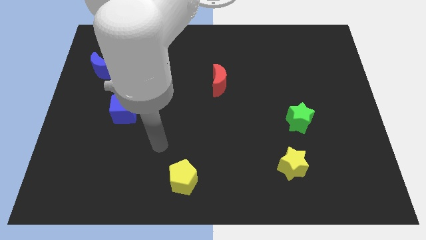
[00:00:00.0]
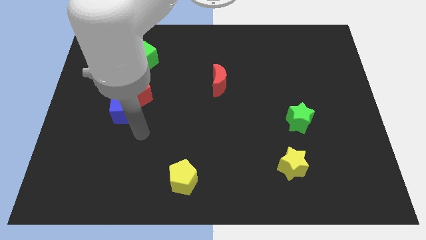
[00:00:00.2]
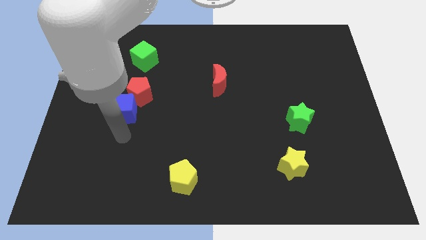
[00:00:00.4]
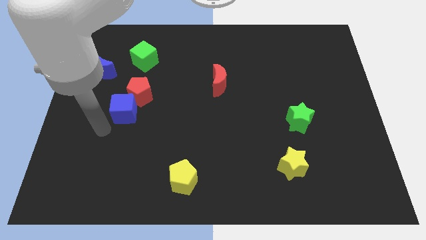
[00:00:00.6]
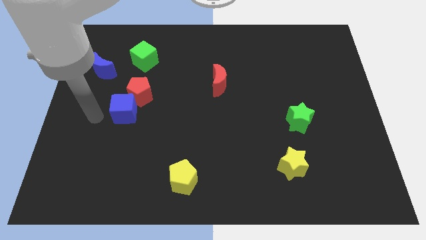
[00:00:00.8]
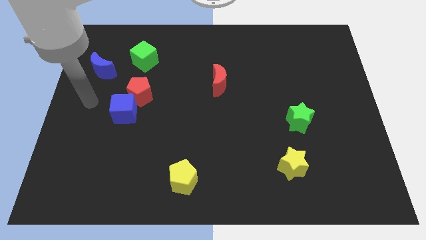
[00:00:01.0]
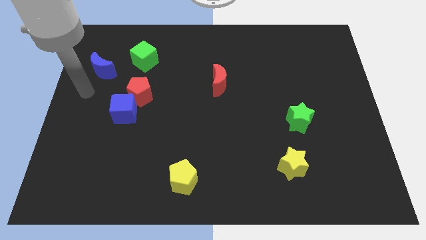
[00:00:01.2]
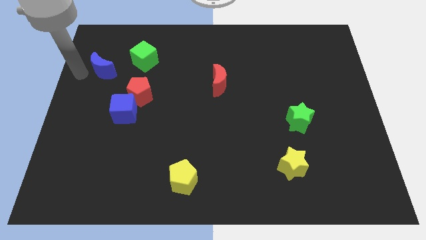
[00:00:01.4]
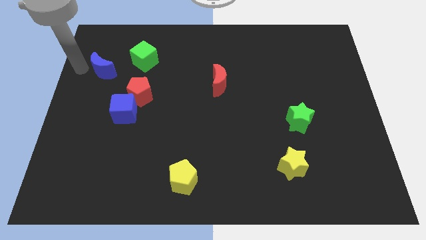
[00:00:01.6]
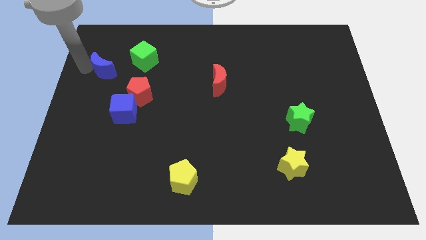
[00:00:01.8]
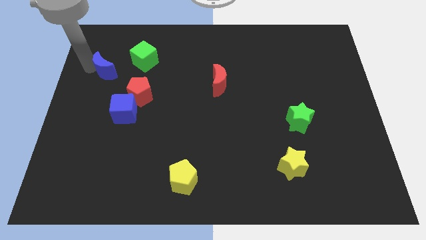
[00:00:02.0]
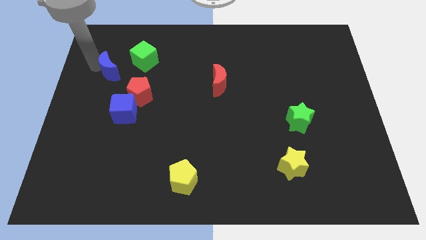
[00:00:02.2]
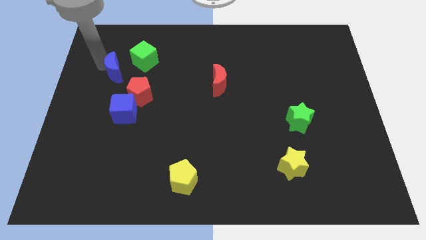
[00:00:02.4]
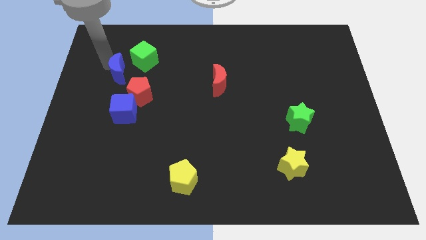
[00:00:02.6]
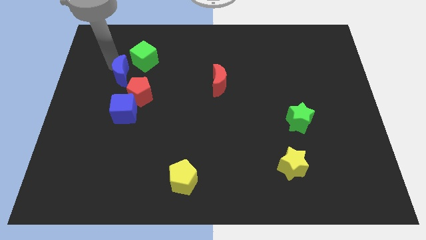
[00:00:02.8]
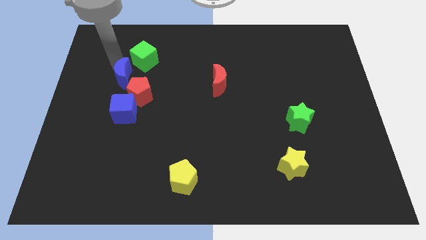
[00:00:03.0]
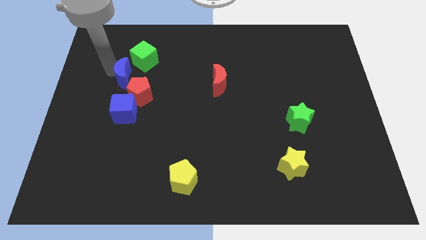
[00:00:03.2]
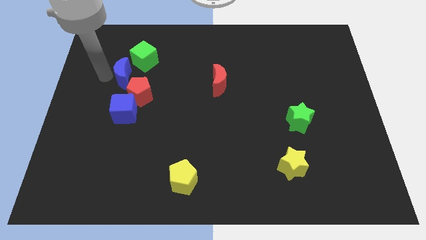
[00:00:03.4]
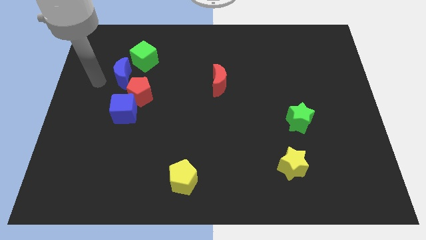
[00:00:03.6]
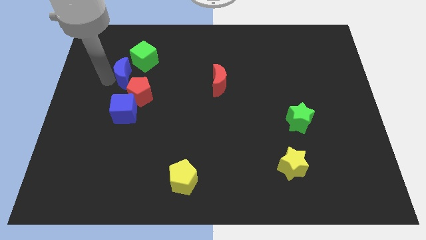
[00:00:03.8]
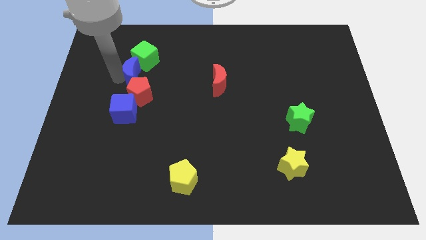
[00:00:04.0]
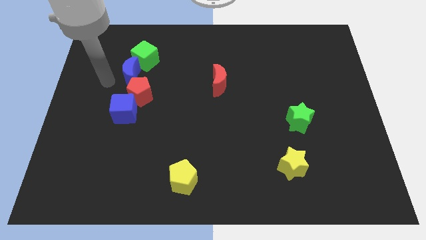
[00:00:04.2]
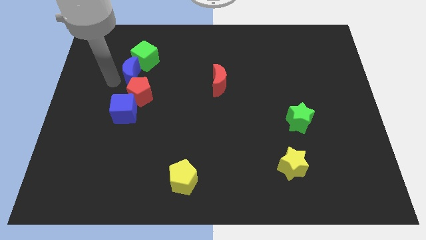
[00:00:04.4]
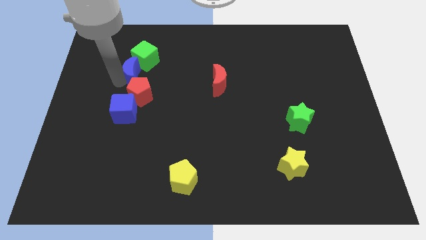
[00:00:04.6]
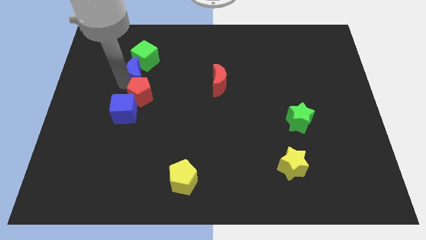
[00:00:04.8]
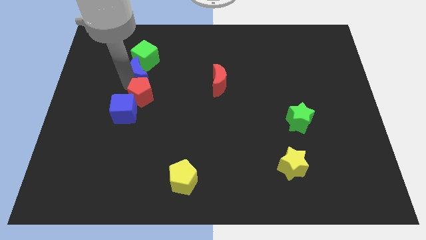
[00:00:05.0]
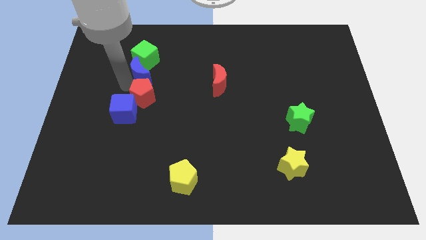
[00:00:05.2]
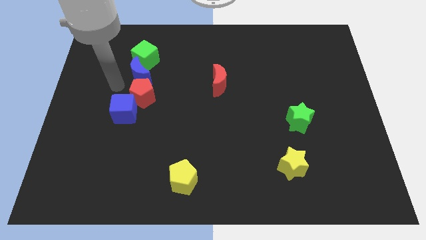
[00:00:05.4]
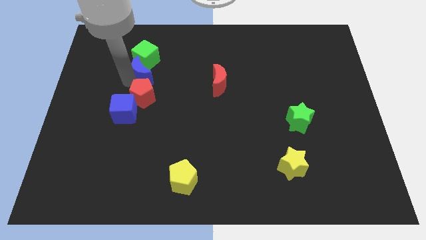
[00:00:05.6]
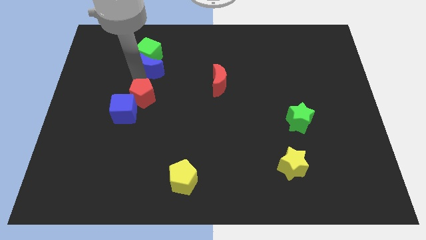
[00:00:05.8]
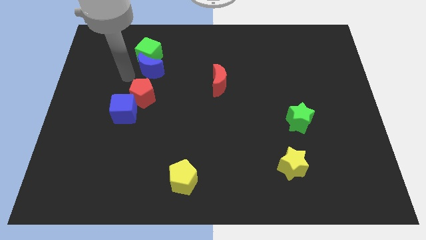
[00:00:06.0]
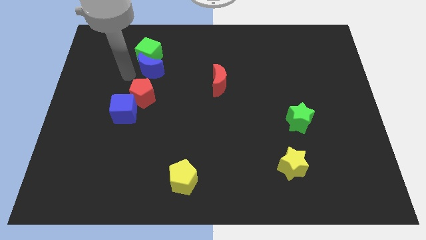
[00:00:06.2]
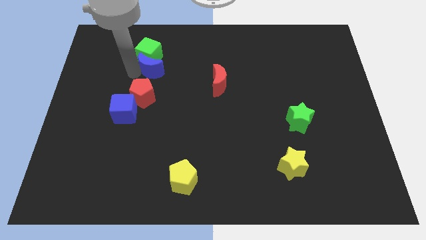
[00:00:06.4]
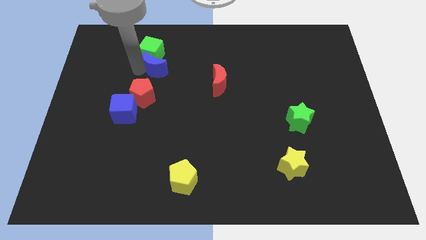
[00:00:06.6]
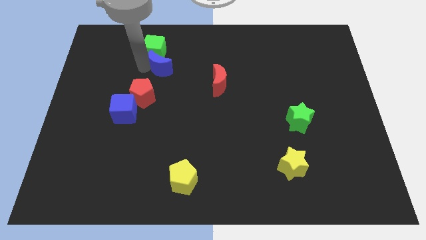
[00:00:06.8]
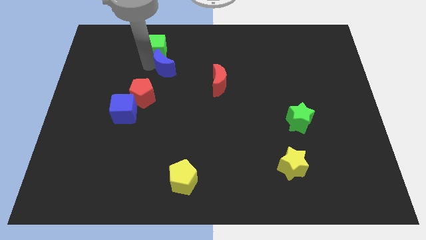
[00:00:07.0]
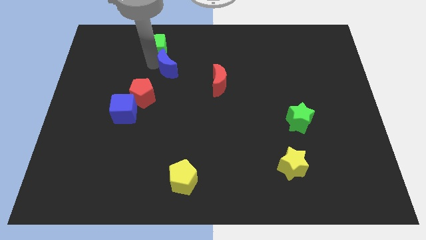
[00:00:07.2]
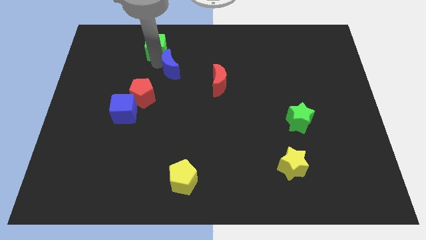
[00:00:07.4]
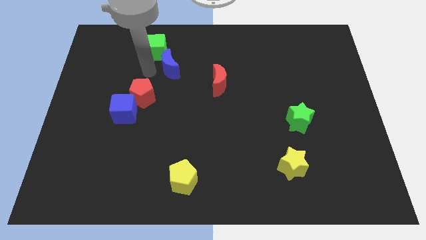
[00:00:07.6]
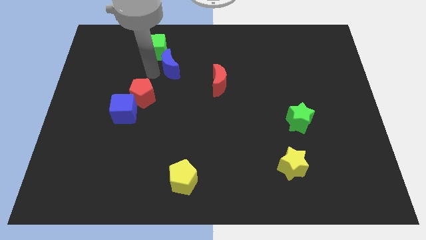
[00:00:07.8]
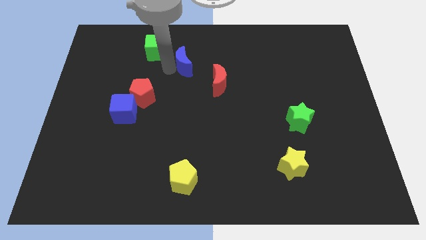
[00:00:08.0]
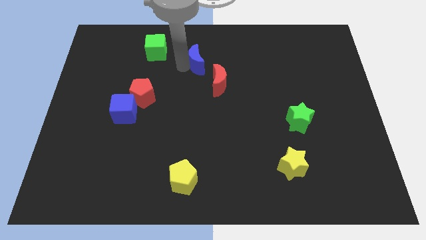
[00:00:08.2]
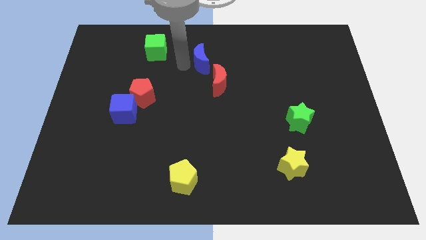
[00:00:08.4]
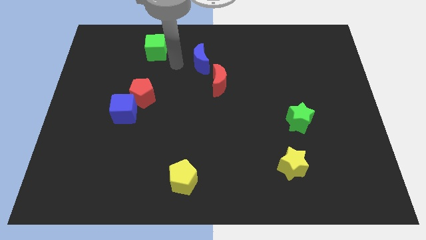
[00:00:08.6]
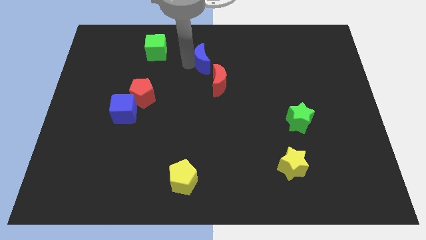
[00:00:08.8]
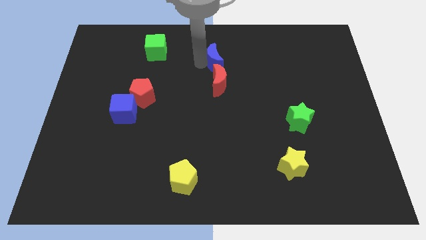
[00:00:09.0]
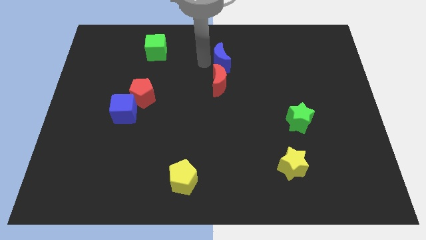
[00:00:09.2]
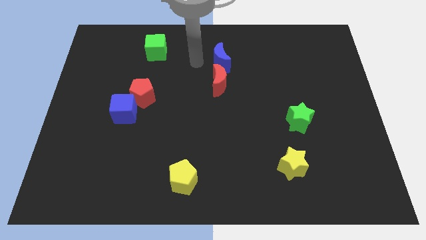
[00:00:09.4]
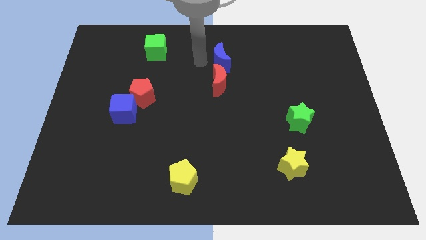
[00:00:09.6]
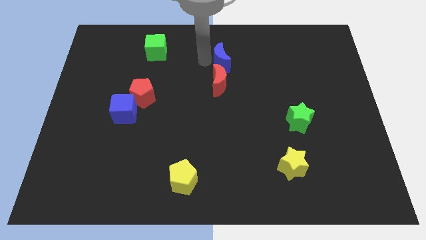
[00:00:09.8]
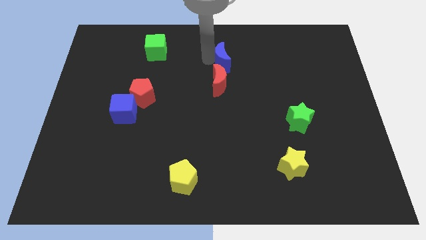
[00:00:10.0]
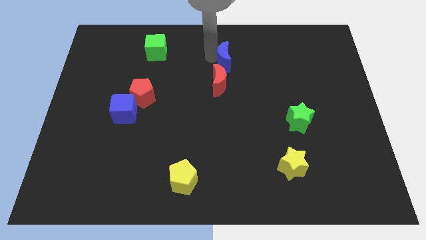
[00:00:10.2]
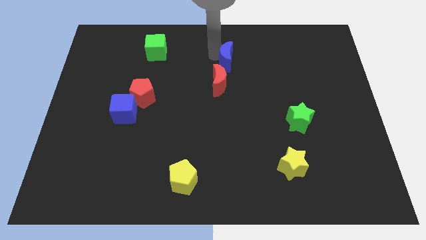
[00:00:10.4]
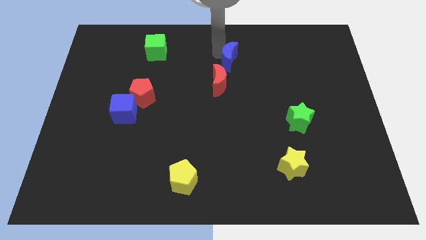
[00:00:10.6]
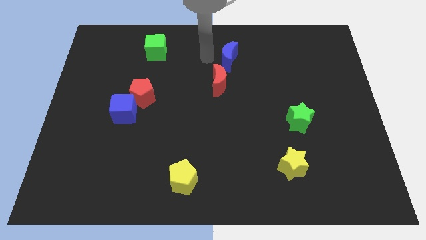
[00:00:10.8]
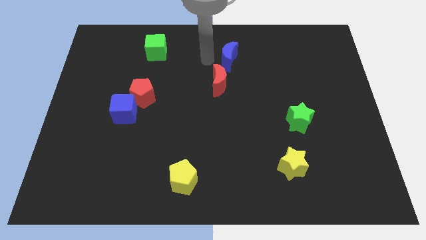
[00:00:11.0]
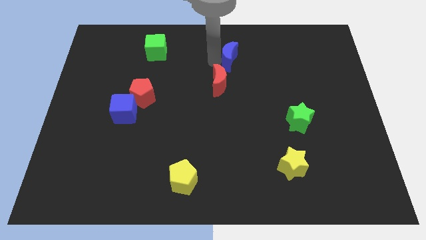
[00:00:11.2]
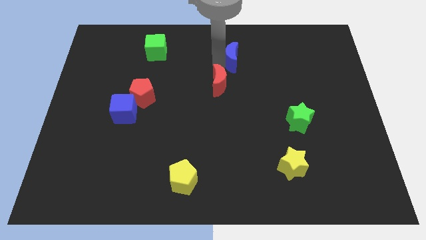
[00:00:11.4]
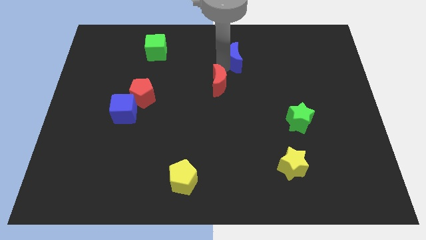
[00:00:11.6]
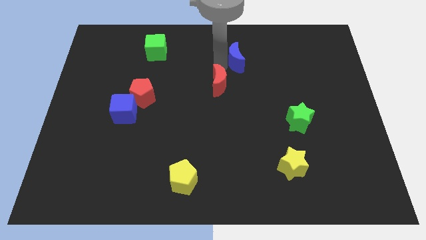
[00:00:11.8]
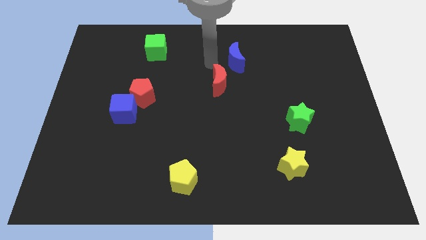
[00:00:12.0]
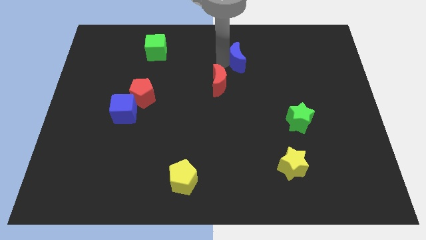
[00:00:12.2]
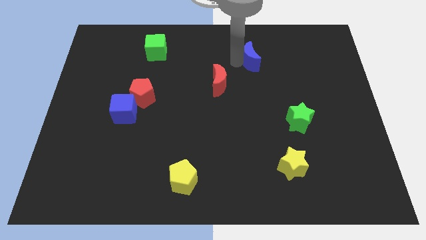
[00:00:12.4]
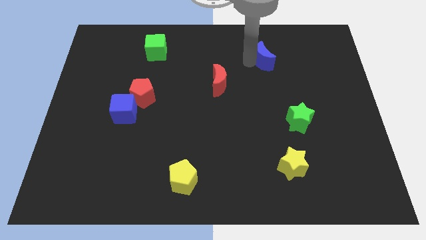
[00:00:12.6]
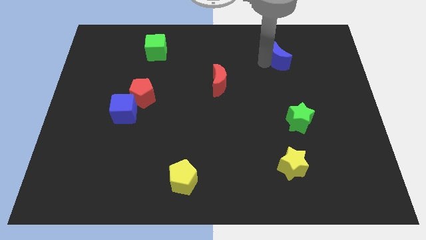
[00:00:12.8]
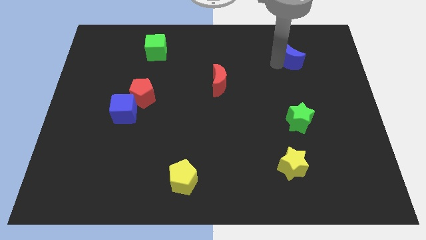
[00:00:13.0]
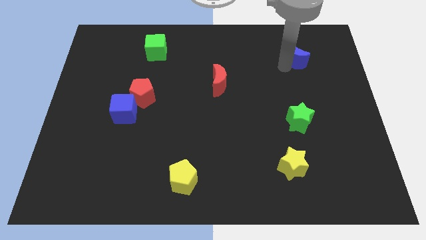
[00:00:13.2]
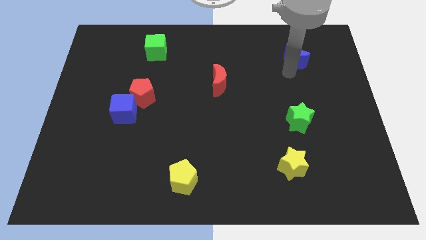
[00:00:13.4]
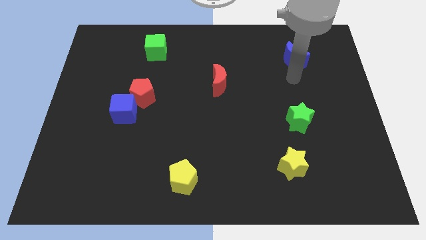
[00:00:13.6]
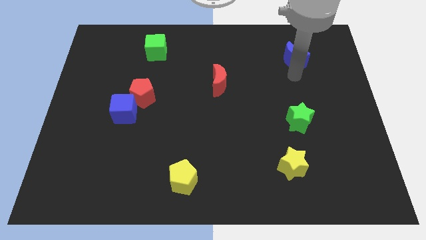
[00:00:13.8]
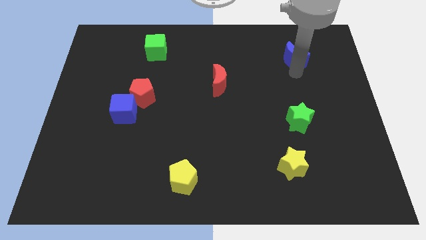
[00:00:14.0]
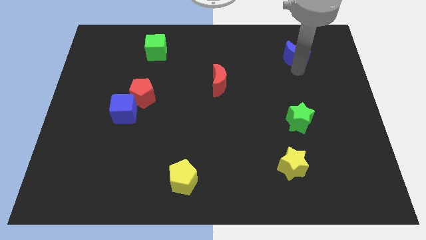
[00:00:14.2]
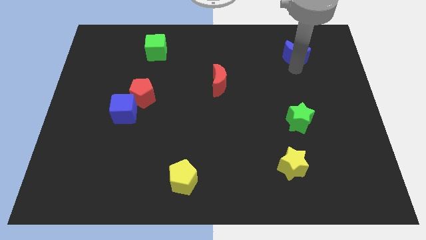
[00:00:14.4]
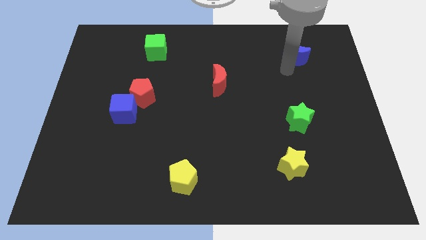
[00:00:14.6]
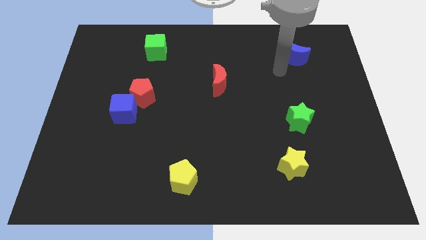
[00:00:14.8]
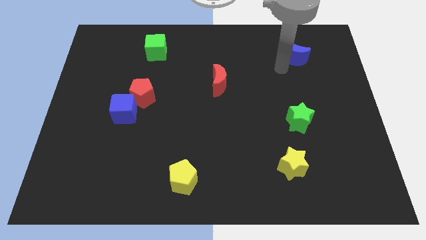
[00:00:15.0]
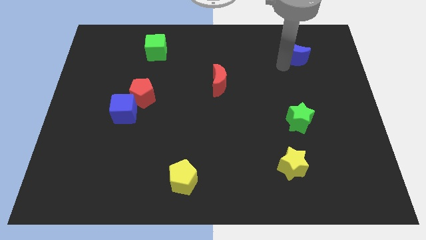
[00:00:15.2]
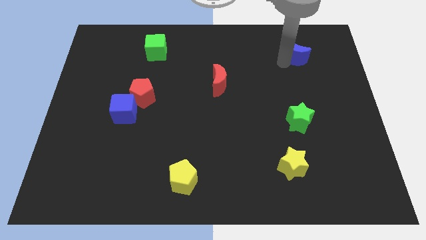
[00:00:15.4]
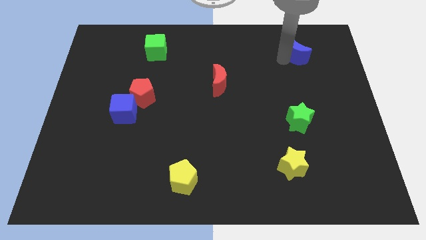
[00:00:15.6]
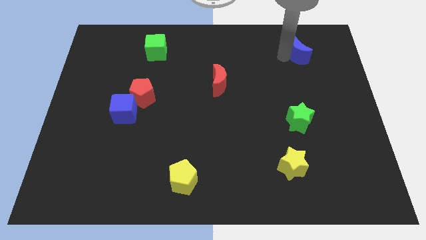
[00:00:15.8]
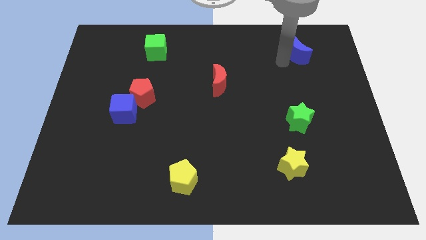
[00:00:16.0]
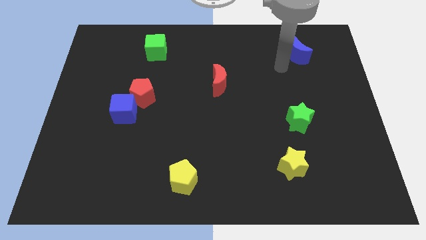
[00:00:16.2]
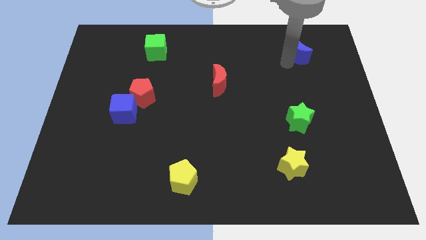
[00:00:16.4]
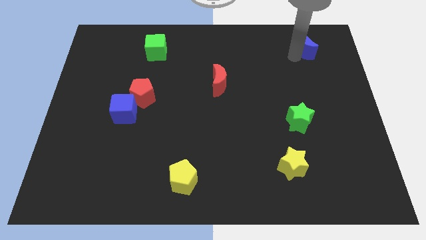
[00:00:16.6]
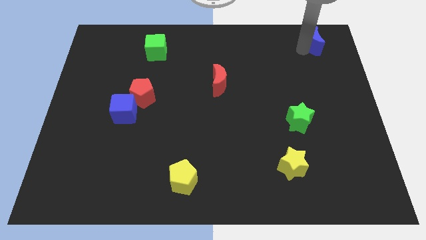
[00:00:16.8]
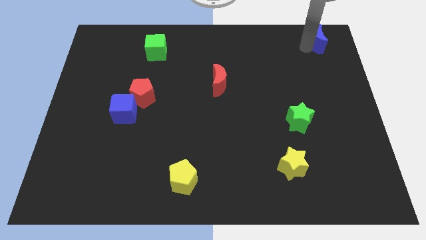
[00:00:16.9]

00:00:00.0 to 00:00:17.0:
move the blue moon to the top right corner
